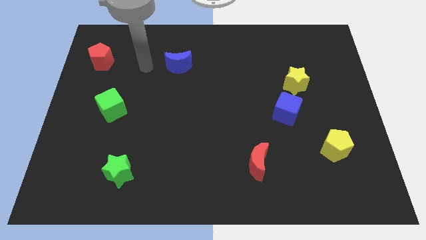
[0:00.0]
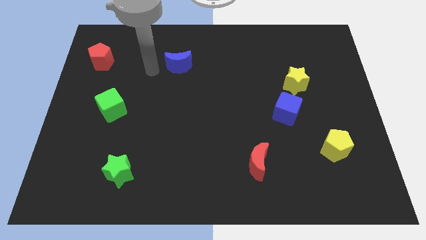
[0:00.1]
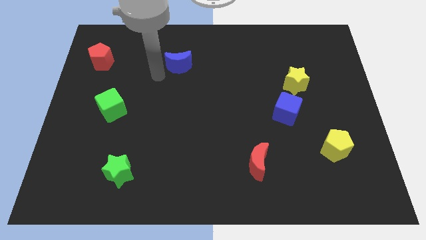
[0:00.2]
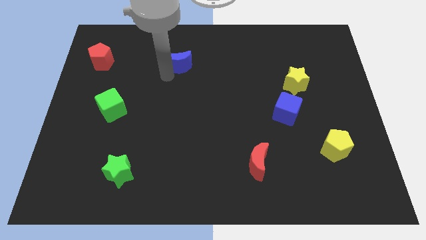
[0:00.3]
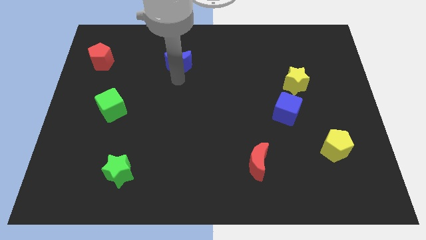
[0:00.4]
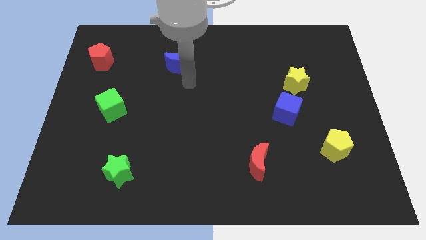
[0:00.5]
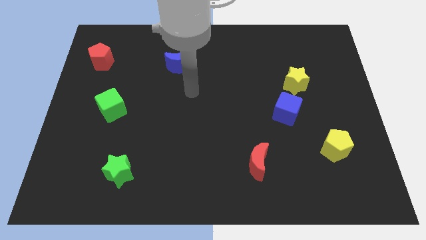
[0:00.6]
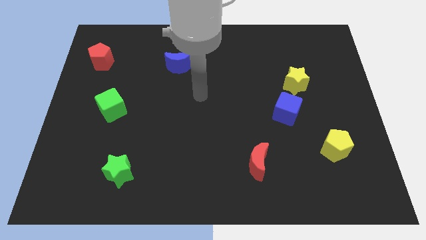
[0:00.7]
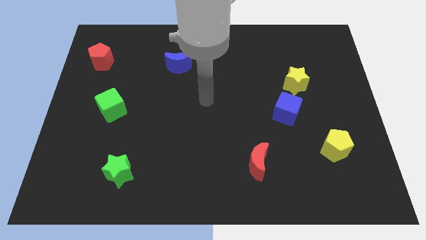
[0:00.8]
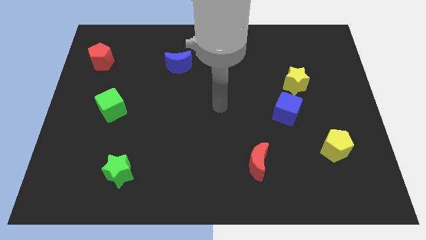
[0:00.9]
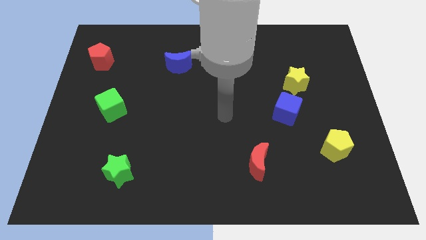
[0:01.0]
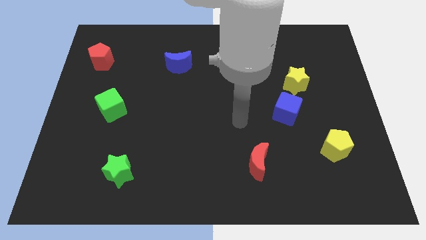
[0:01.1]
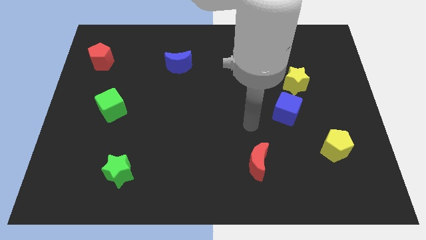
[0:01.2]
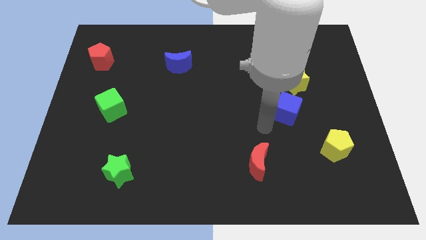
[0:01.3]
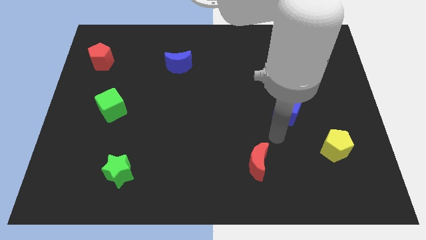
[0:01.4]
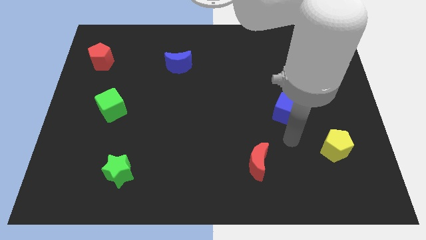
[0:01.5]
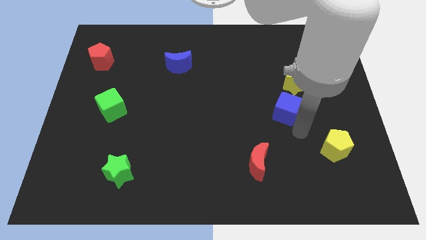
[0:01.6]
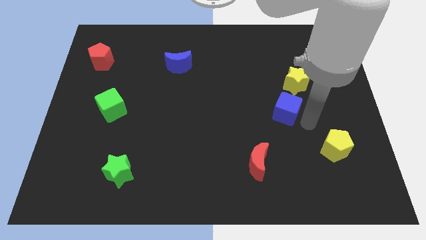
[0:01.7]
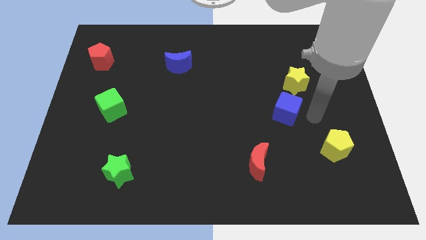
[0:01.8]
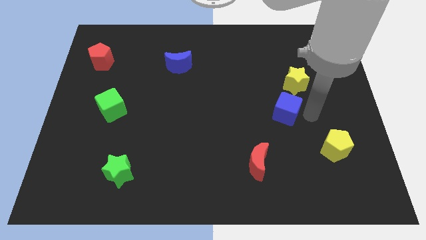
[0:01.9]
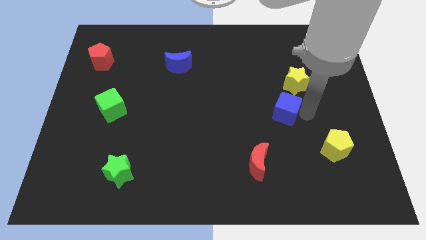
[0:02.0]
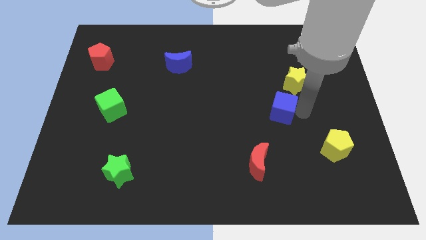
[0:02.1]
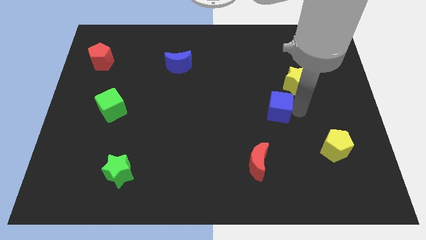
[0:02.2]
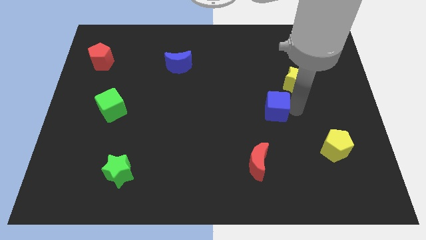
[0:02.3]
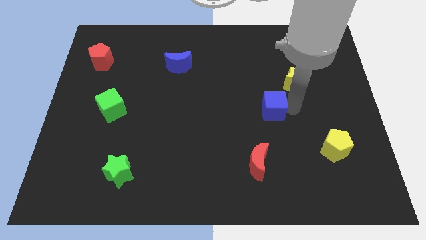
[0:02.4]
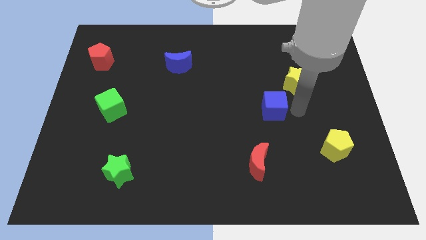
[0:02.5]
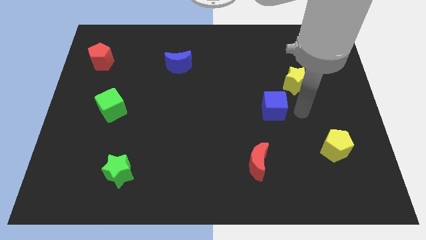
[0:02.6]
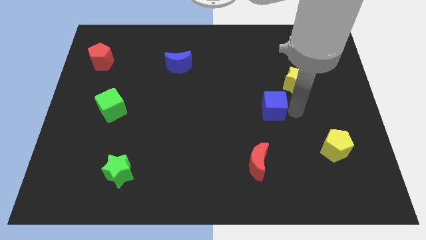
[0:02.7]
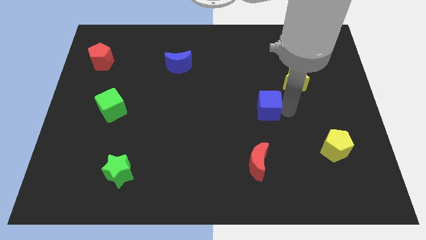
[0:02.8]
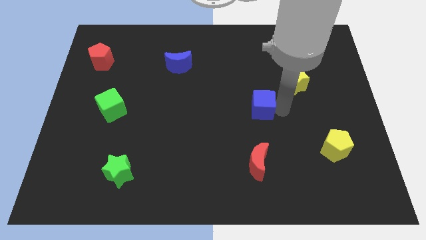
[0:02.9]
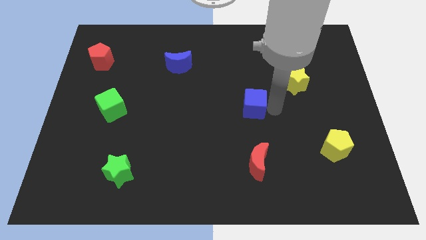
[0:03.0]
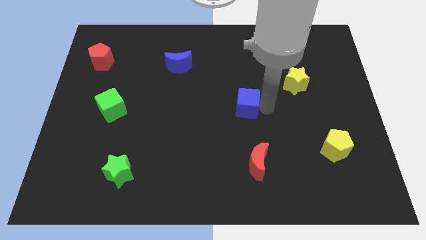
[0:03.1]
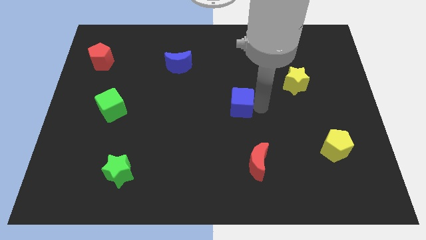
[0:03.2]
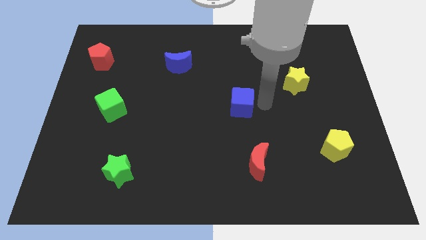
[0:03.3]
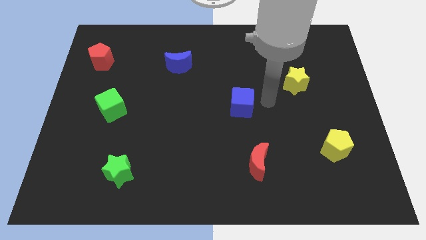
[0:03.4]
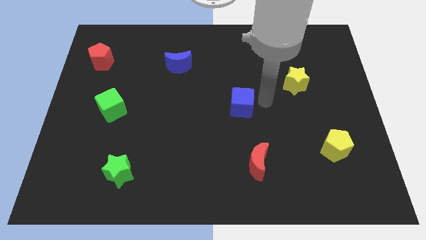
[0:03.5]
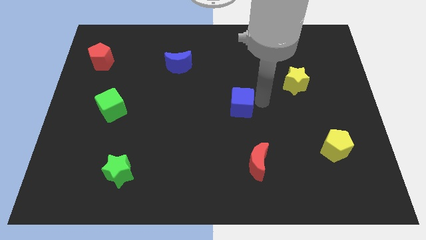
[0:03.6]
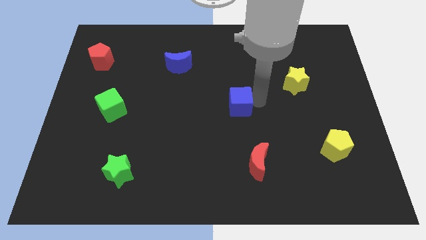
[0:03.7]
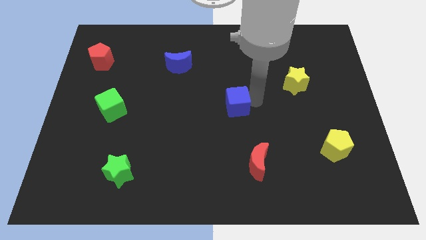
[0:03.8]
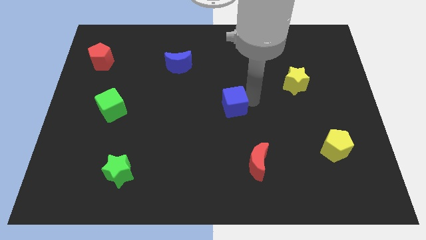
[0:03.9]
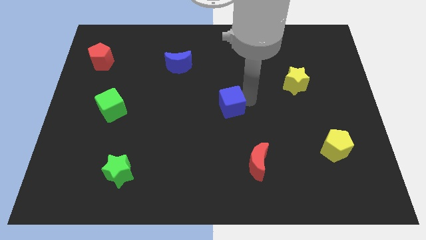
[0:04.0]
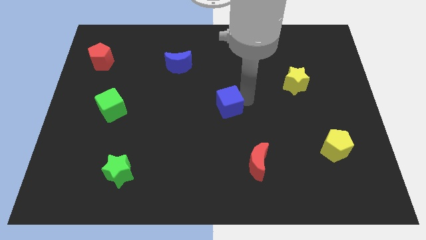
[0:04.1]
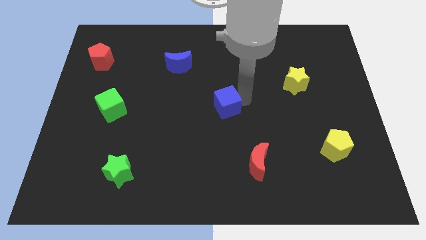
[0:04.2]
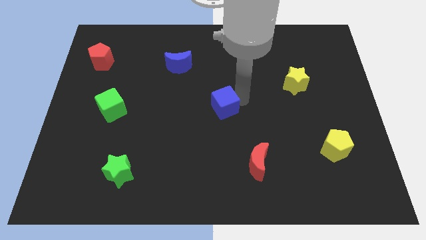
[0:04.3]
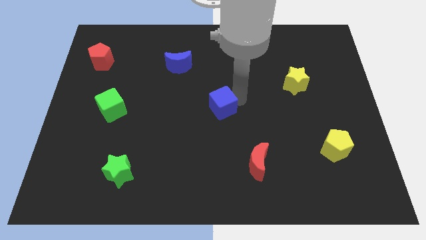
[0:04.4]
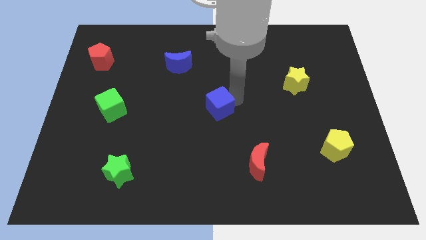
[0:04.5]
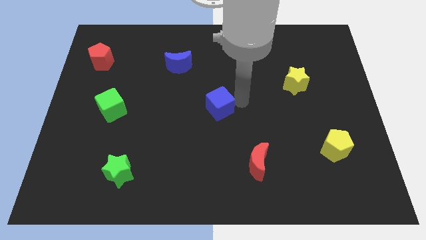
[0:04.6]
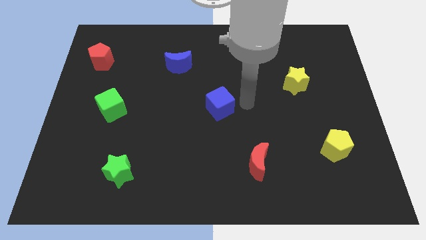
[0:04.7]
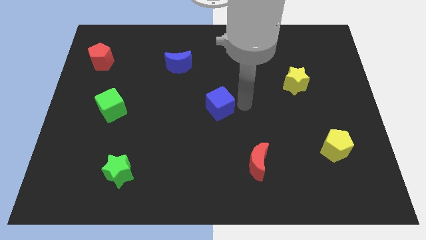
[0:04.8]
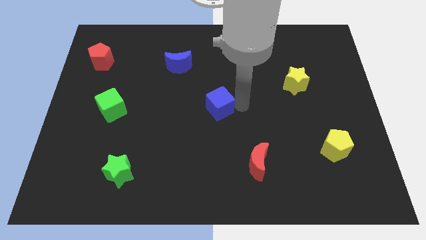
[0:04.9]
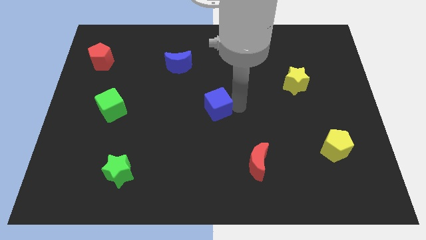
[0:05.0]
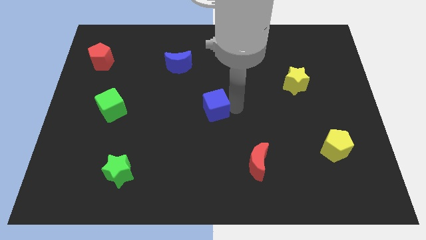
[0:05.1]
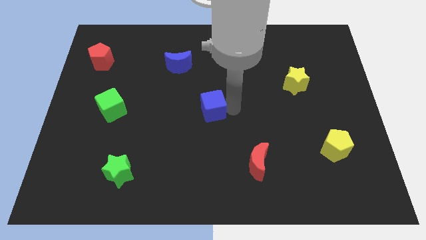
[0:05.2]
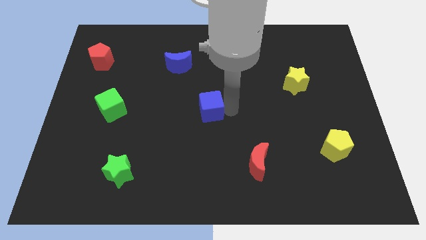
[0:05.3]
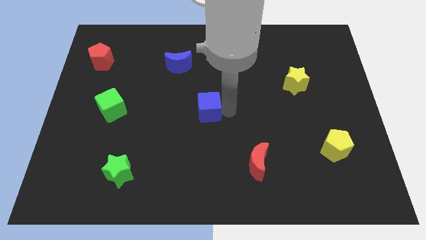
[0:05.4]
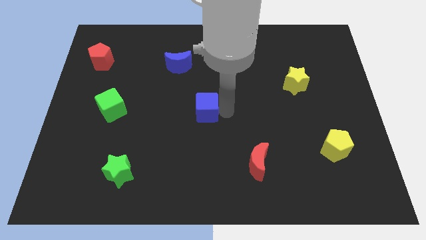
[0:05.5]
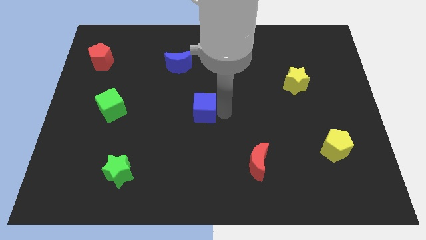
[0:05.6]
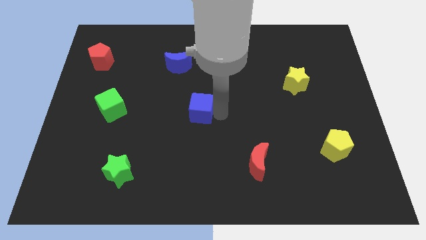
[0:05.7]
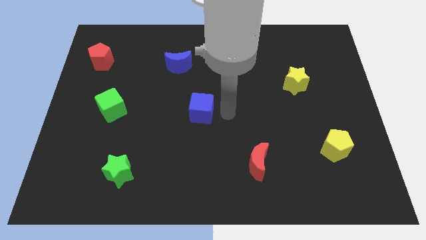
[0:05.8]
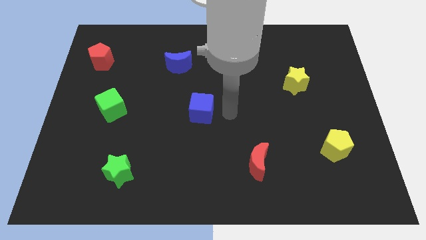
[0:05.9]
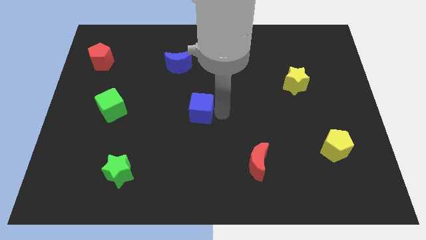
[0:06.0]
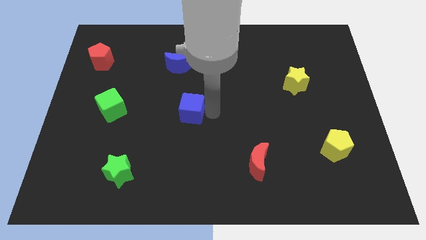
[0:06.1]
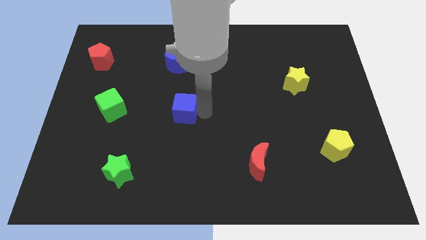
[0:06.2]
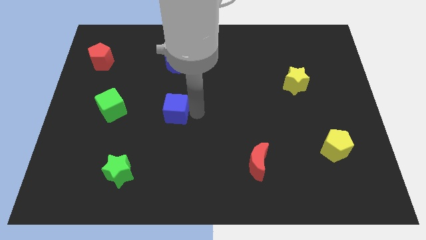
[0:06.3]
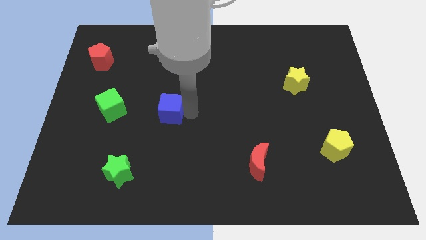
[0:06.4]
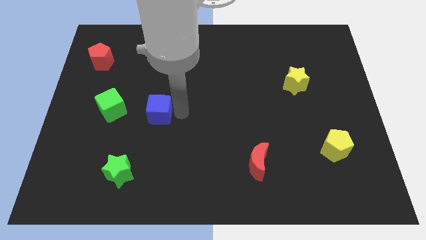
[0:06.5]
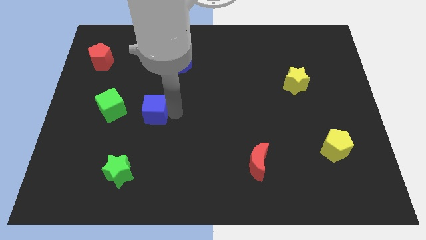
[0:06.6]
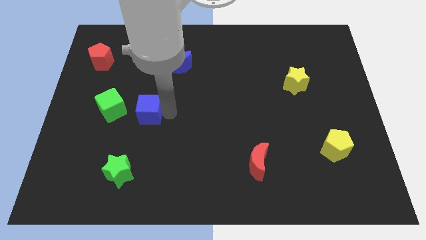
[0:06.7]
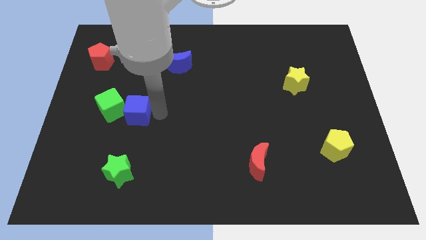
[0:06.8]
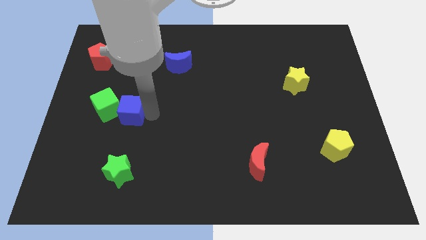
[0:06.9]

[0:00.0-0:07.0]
slide the blue cube close to the green cube

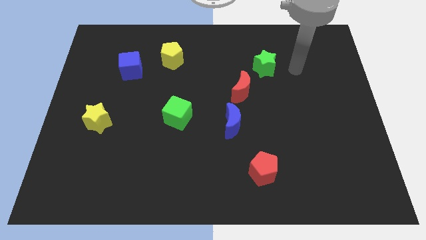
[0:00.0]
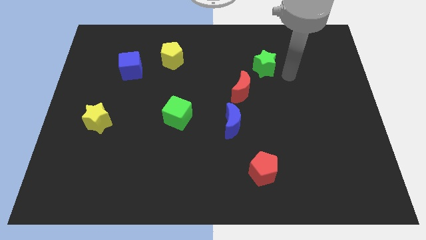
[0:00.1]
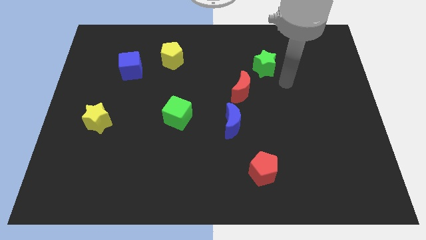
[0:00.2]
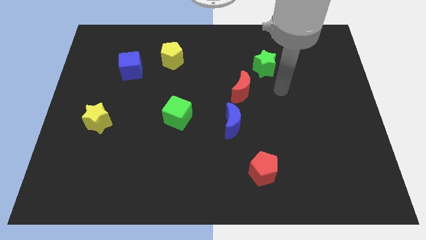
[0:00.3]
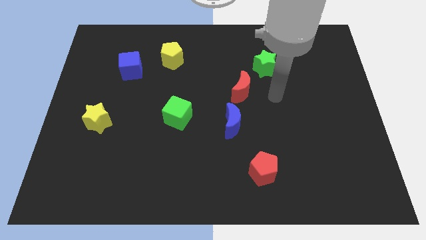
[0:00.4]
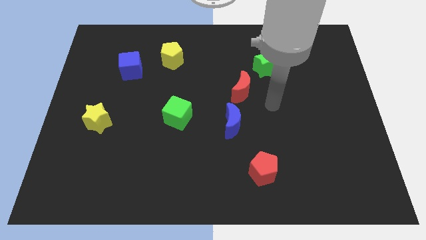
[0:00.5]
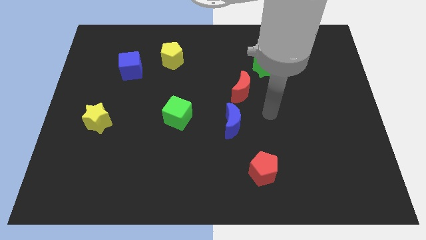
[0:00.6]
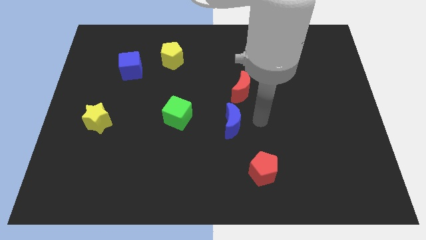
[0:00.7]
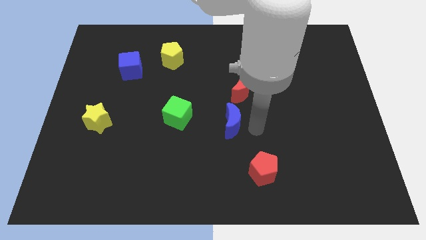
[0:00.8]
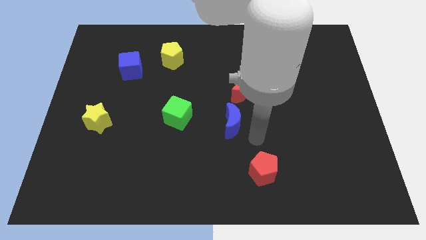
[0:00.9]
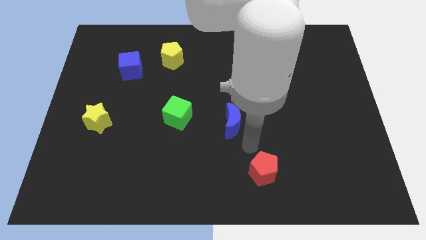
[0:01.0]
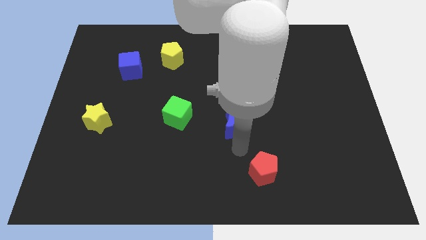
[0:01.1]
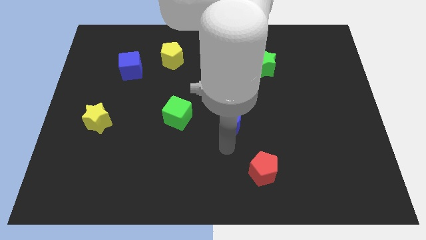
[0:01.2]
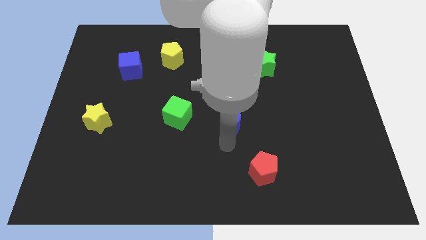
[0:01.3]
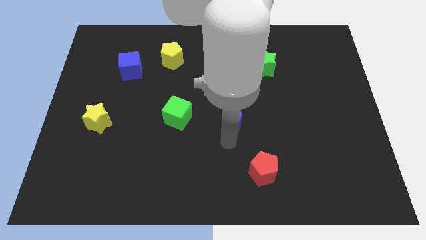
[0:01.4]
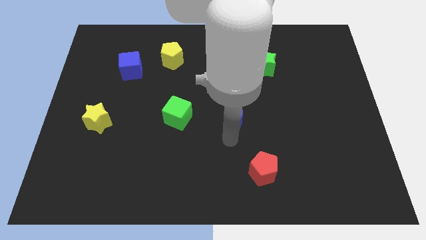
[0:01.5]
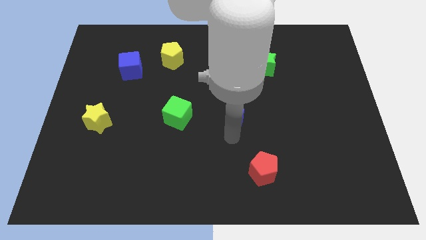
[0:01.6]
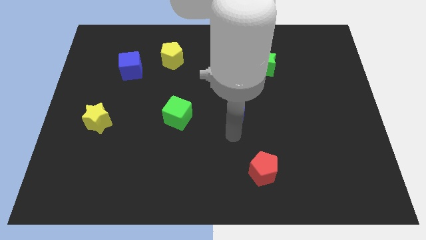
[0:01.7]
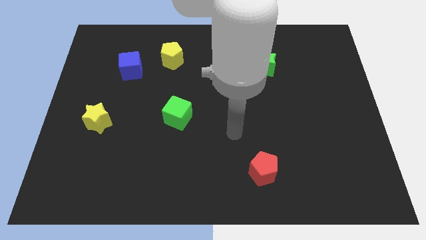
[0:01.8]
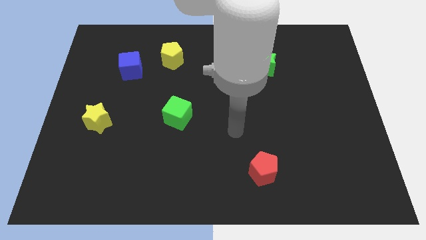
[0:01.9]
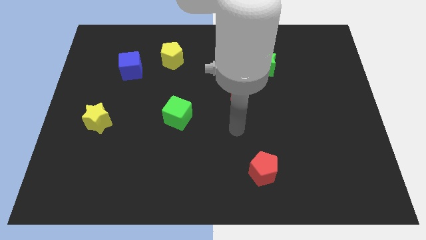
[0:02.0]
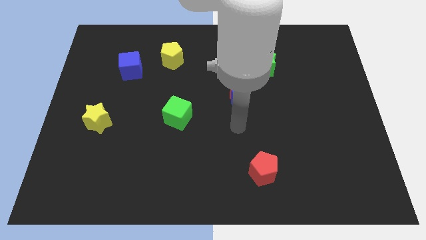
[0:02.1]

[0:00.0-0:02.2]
put the blue moon next to the red moon
